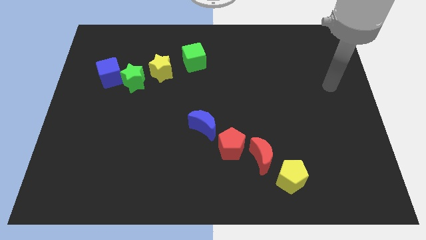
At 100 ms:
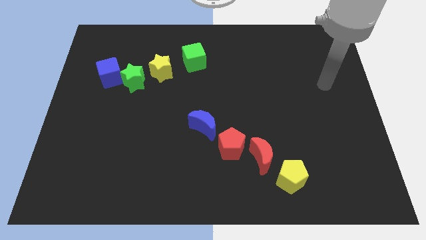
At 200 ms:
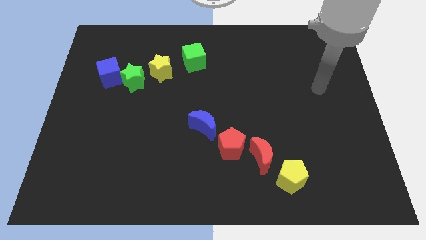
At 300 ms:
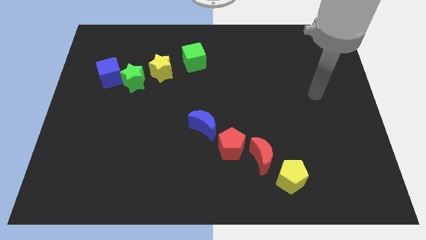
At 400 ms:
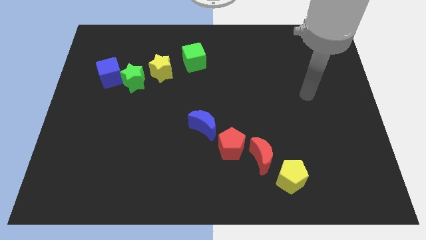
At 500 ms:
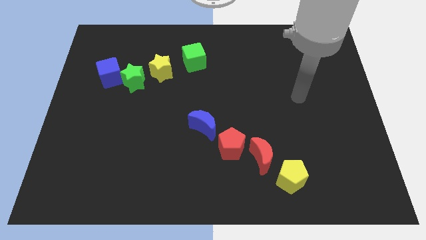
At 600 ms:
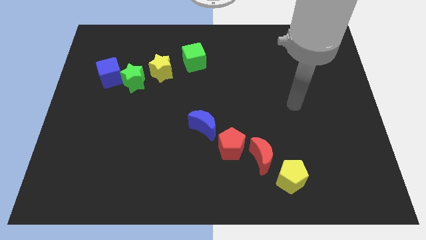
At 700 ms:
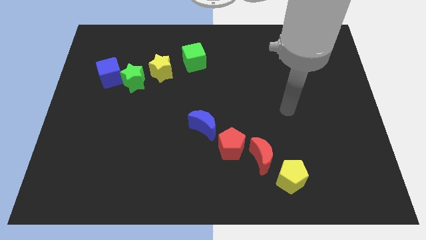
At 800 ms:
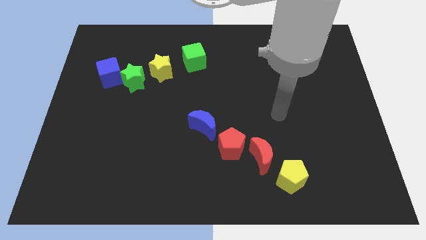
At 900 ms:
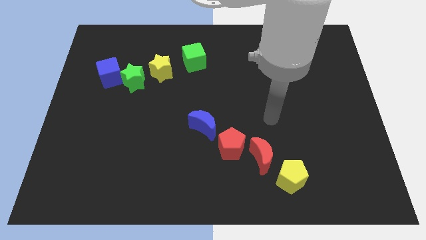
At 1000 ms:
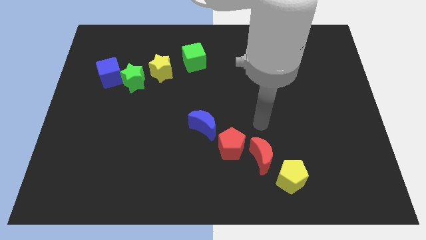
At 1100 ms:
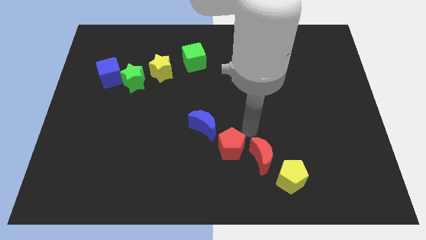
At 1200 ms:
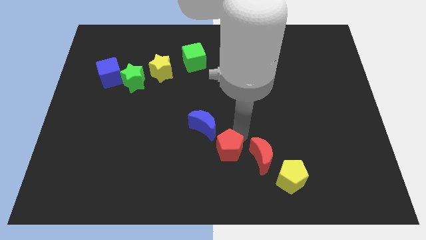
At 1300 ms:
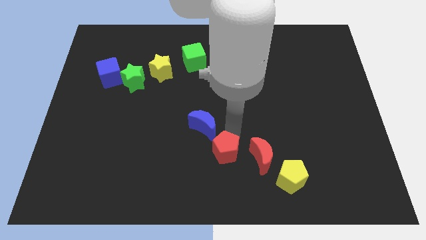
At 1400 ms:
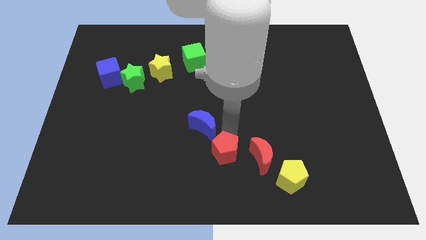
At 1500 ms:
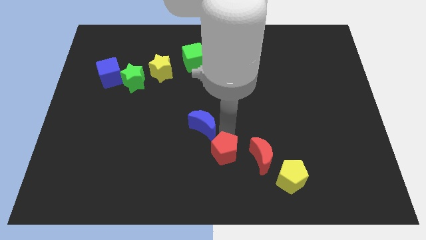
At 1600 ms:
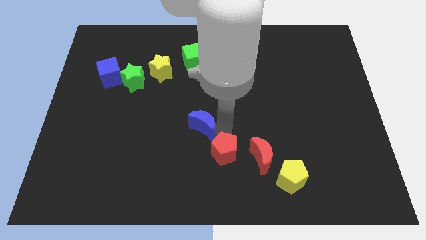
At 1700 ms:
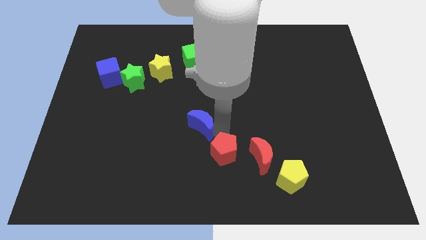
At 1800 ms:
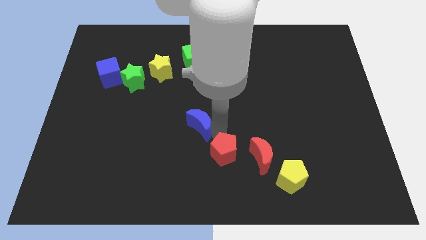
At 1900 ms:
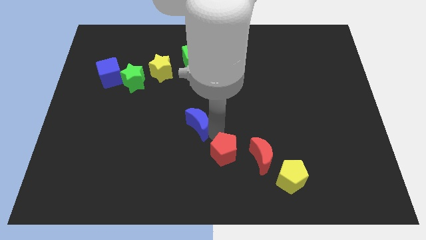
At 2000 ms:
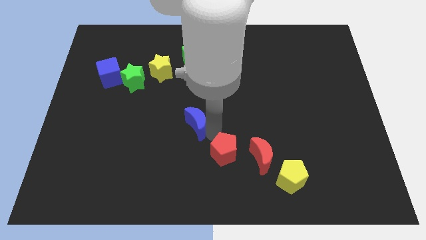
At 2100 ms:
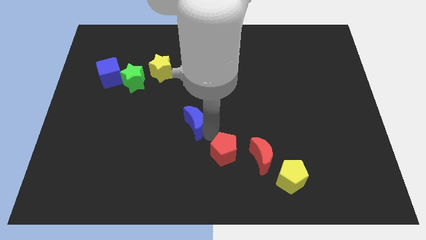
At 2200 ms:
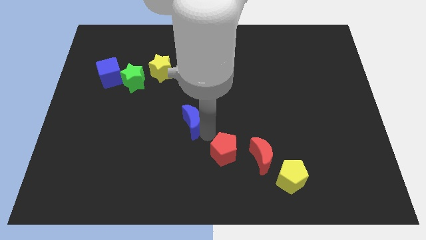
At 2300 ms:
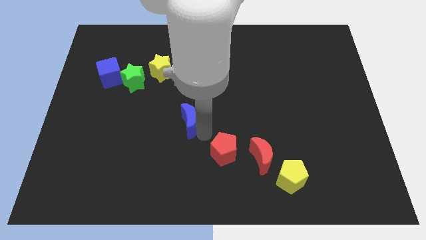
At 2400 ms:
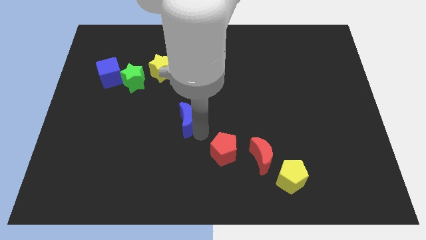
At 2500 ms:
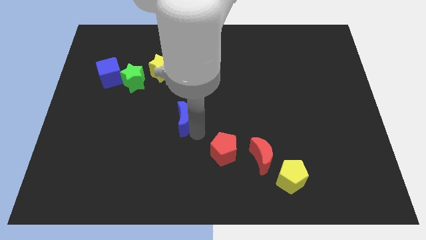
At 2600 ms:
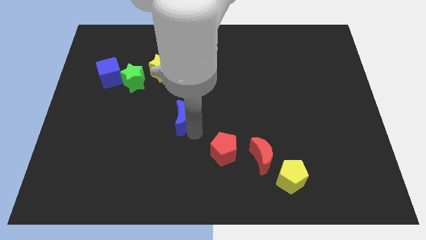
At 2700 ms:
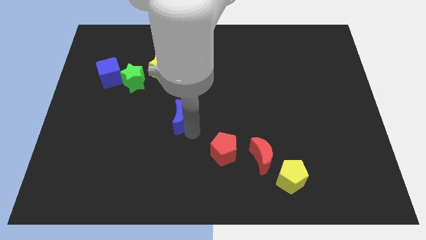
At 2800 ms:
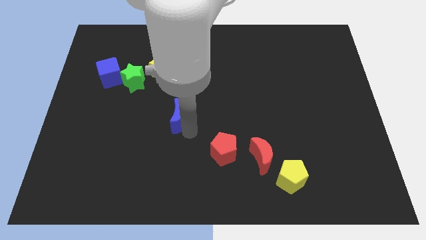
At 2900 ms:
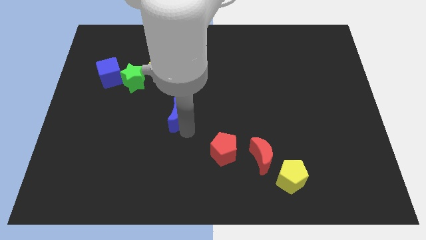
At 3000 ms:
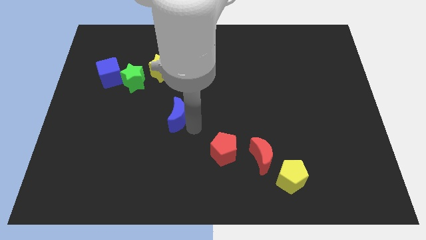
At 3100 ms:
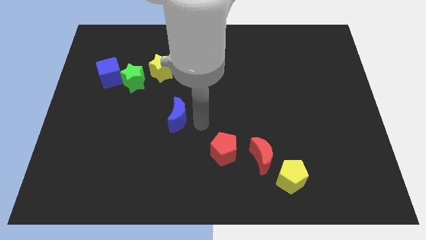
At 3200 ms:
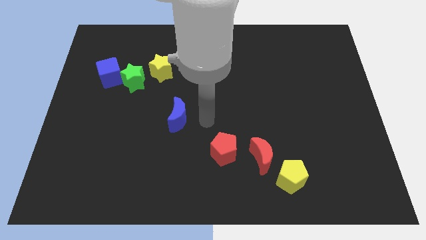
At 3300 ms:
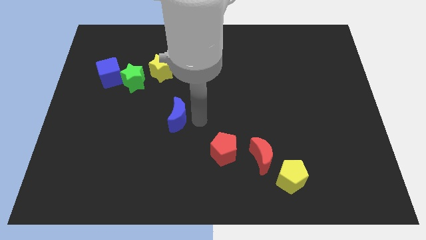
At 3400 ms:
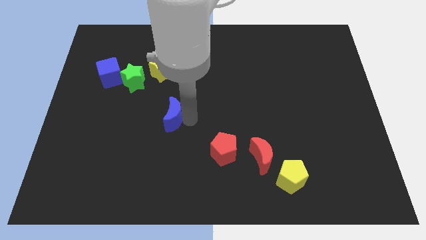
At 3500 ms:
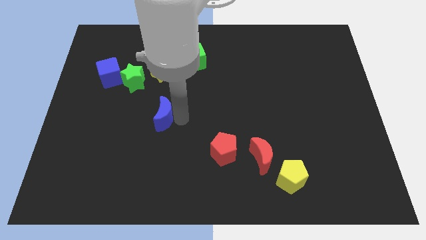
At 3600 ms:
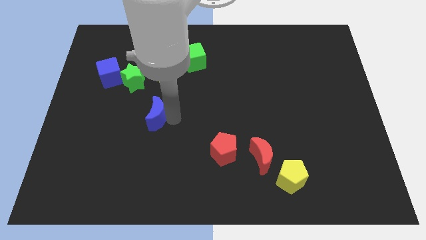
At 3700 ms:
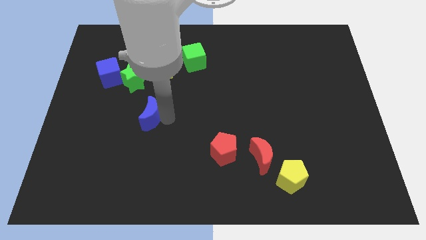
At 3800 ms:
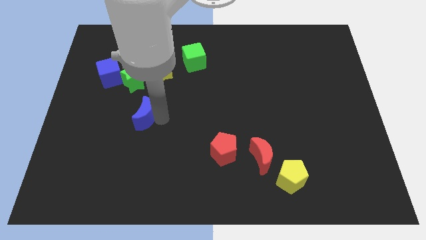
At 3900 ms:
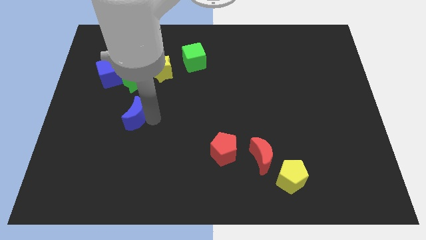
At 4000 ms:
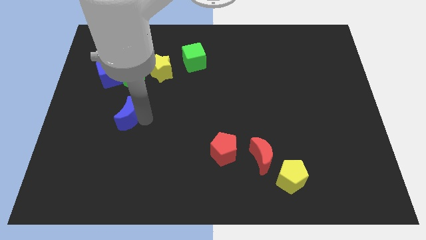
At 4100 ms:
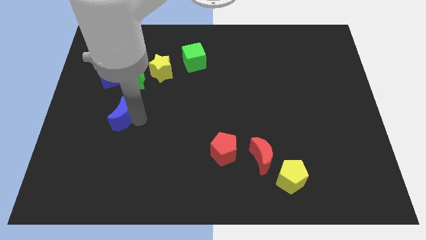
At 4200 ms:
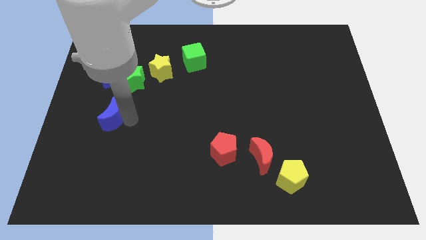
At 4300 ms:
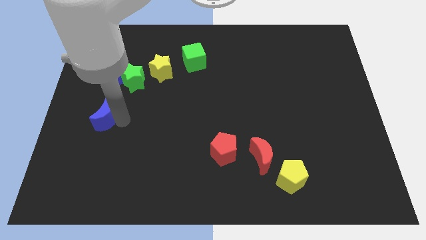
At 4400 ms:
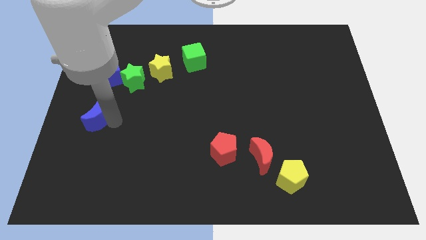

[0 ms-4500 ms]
move the blue moon to the left side

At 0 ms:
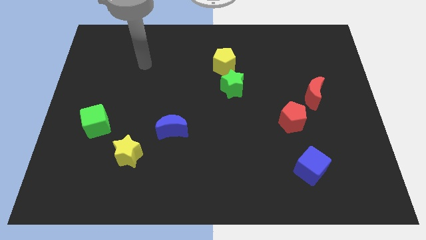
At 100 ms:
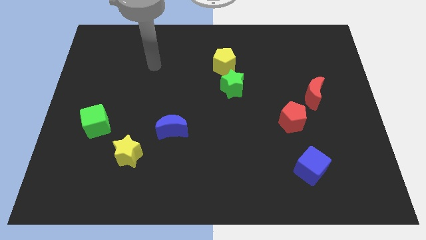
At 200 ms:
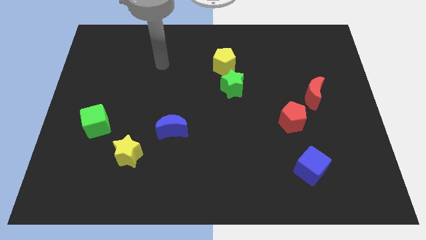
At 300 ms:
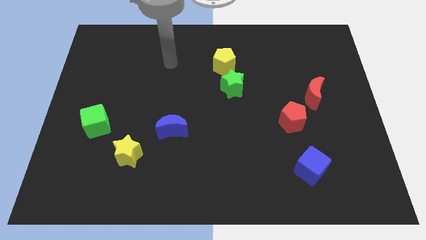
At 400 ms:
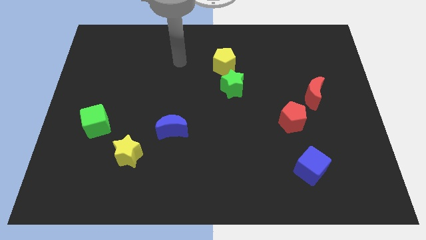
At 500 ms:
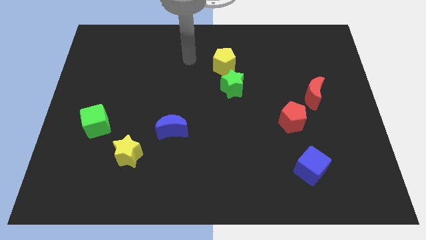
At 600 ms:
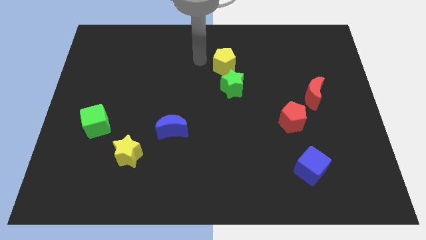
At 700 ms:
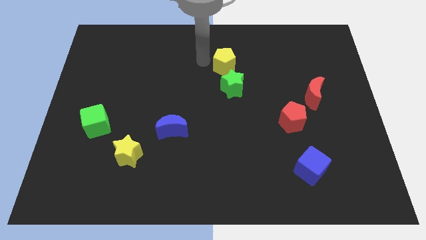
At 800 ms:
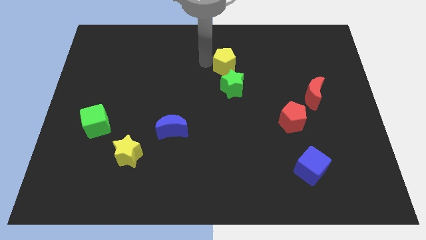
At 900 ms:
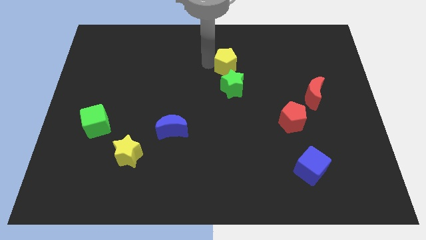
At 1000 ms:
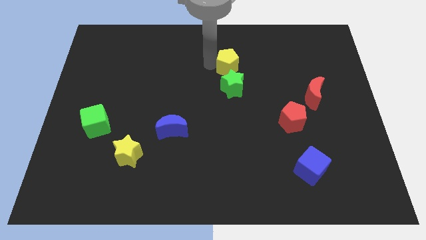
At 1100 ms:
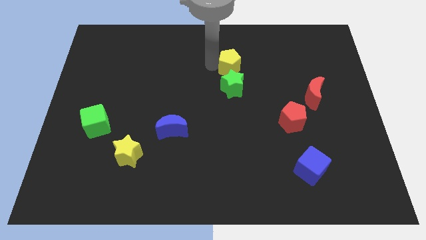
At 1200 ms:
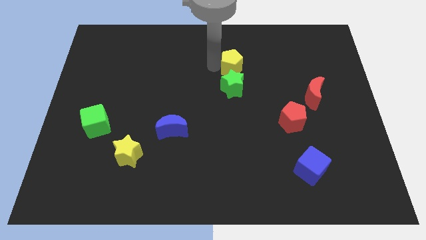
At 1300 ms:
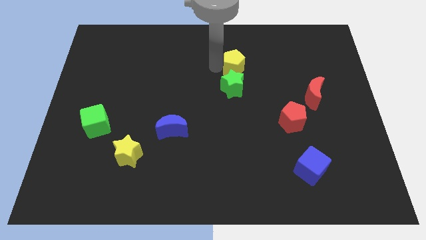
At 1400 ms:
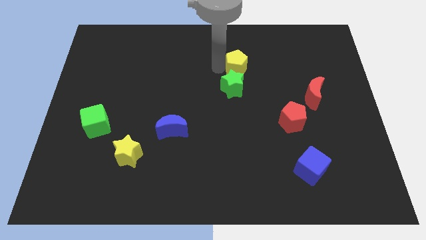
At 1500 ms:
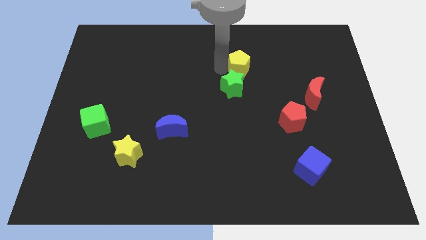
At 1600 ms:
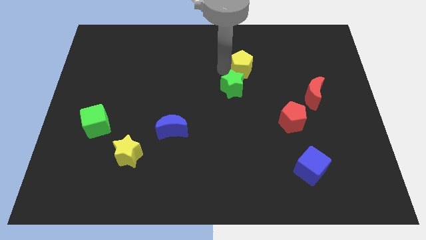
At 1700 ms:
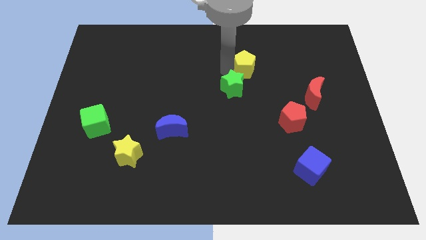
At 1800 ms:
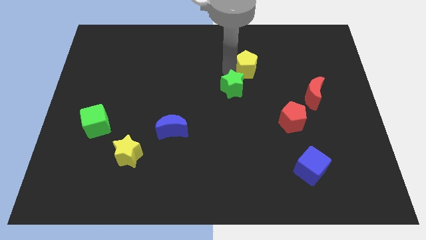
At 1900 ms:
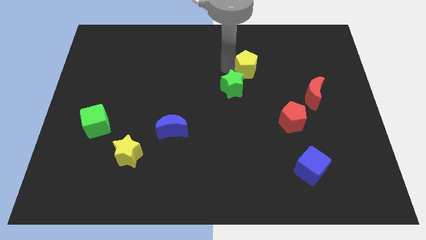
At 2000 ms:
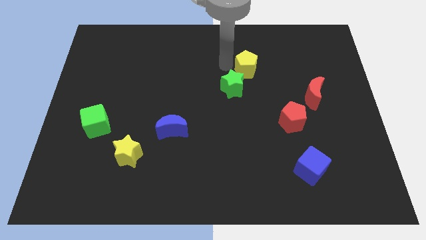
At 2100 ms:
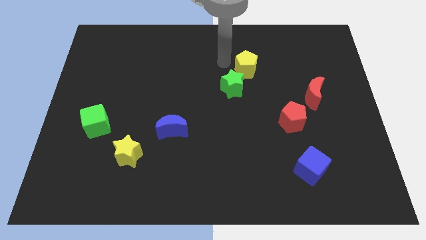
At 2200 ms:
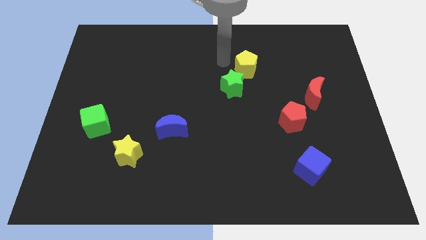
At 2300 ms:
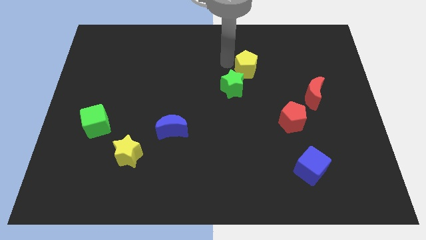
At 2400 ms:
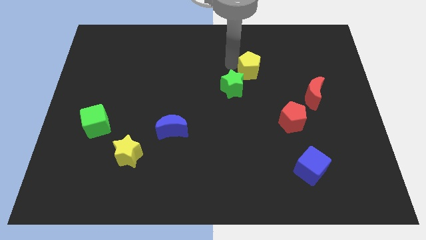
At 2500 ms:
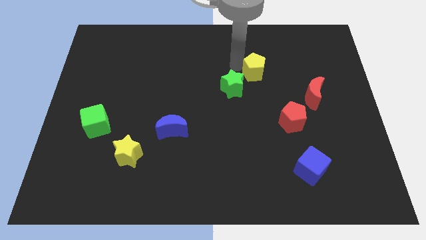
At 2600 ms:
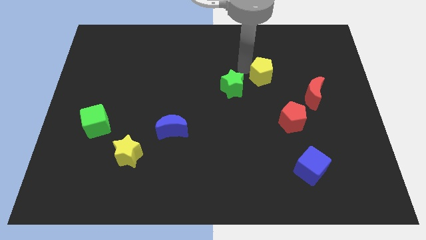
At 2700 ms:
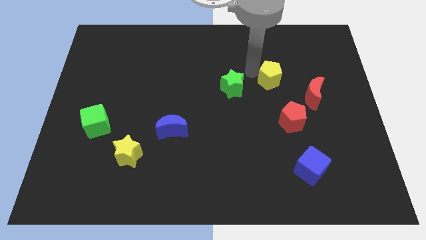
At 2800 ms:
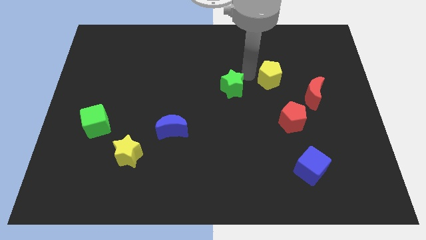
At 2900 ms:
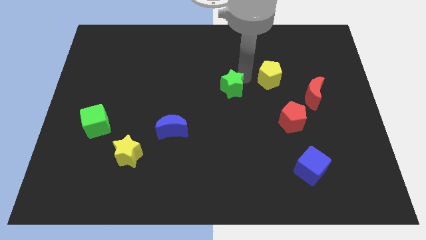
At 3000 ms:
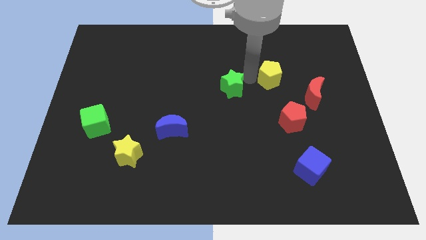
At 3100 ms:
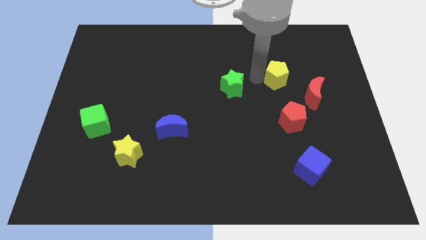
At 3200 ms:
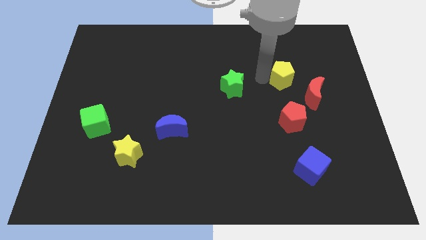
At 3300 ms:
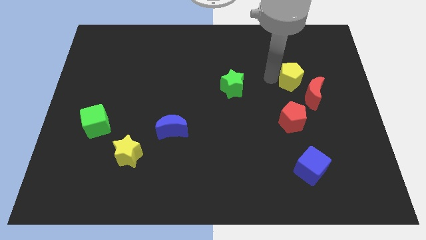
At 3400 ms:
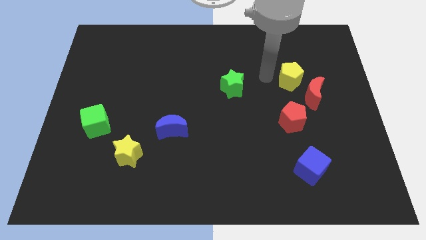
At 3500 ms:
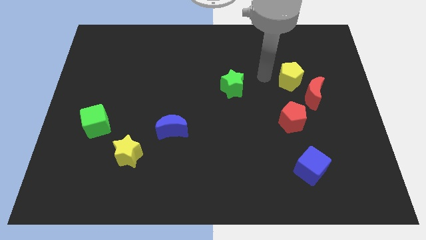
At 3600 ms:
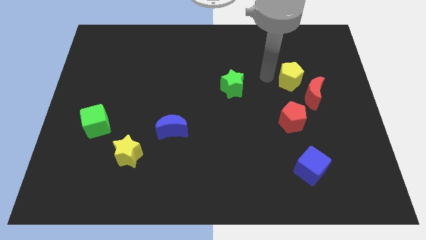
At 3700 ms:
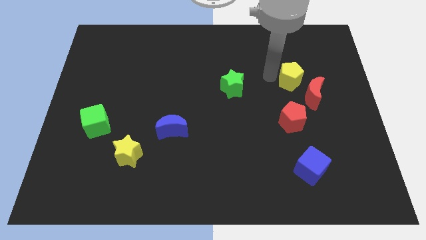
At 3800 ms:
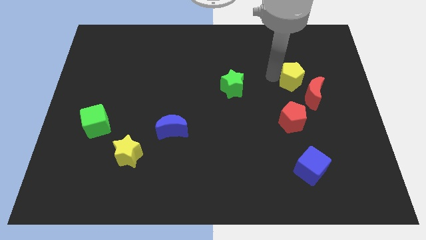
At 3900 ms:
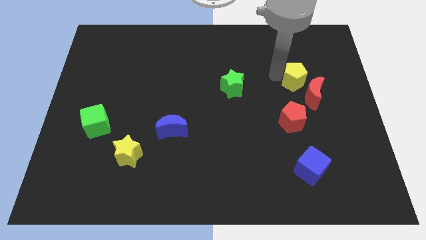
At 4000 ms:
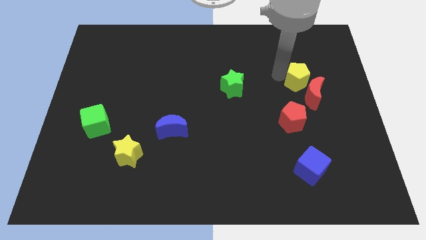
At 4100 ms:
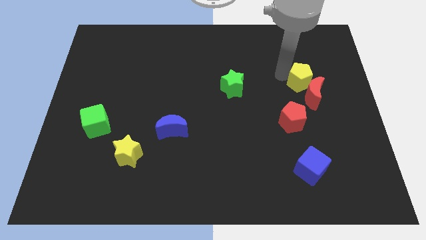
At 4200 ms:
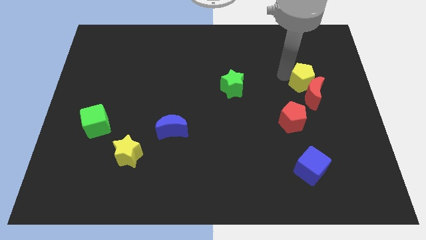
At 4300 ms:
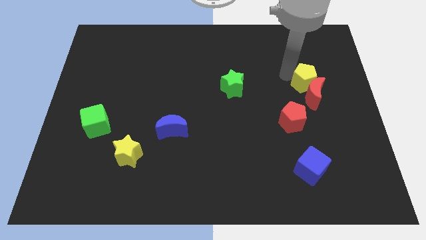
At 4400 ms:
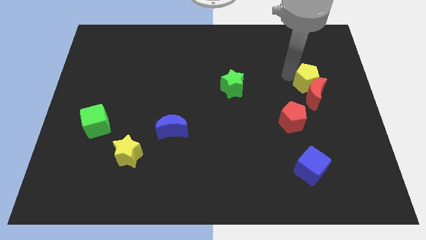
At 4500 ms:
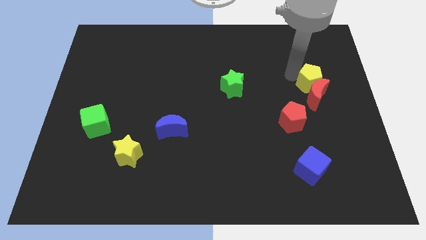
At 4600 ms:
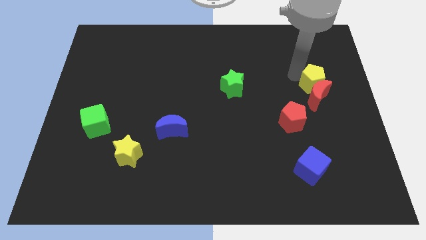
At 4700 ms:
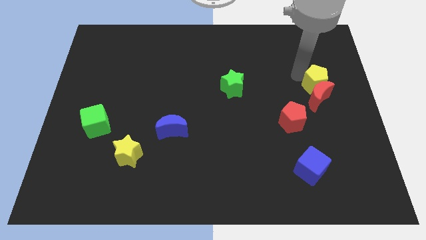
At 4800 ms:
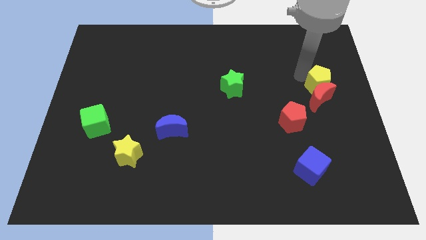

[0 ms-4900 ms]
push the yellow pentagon to the right side
